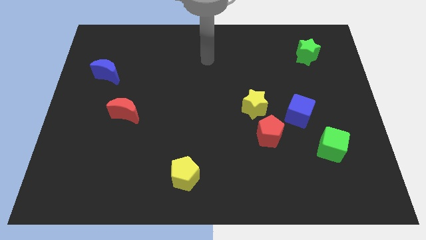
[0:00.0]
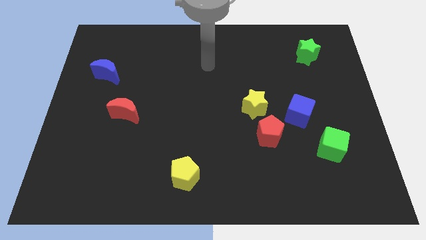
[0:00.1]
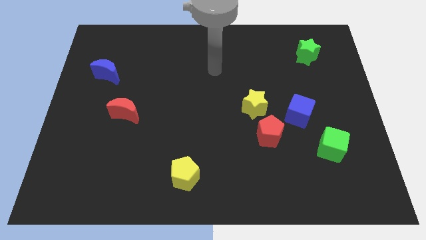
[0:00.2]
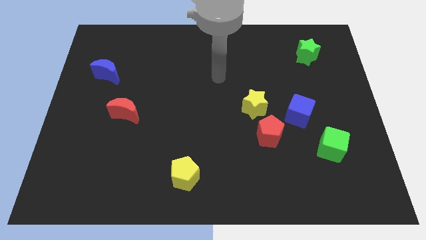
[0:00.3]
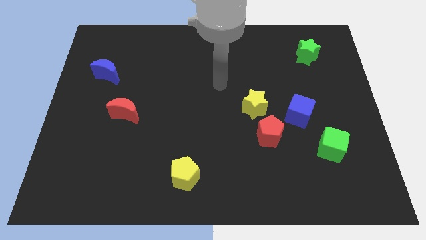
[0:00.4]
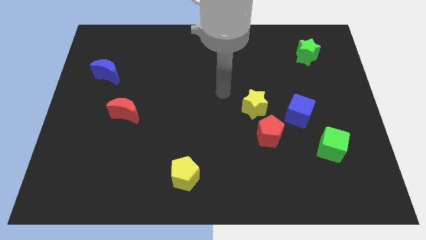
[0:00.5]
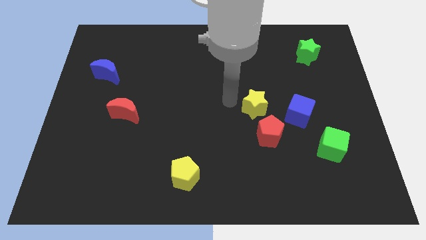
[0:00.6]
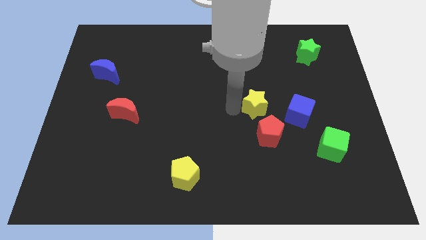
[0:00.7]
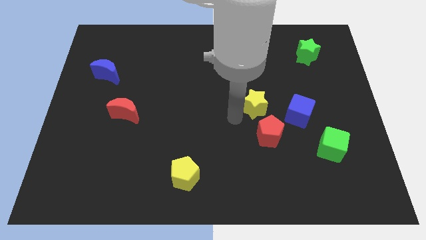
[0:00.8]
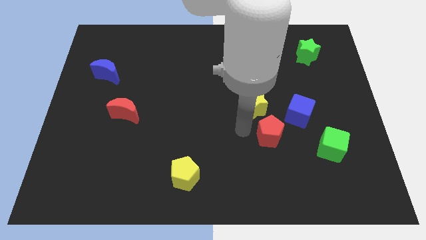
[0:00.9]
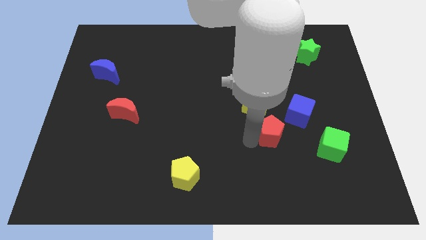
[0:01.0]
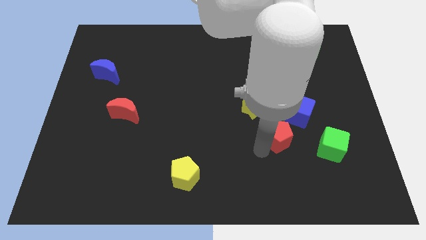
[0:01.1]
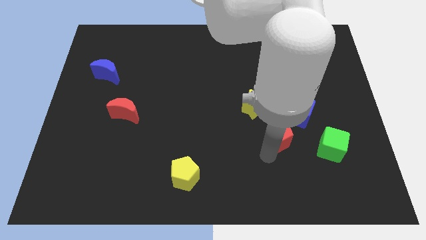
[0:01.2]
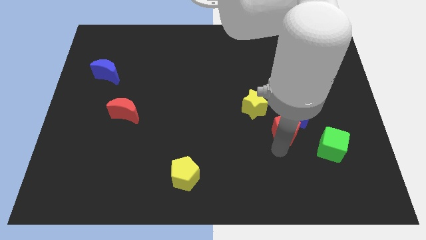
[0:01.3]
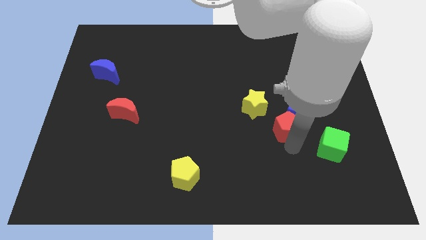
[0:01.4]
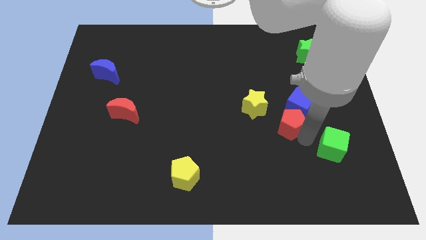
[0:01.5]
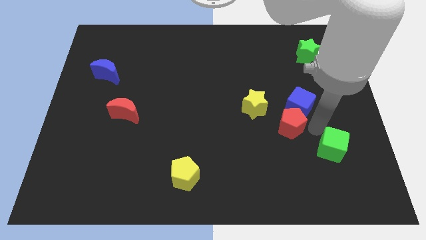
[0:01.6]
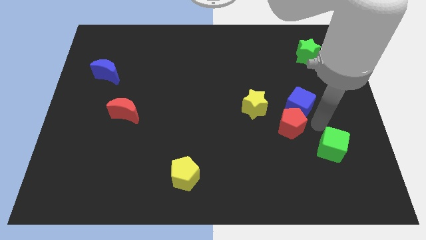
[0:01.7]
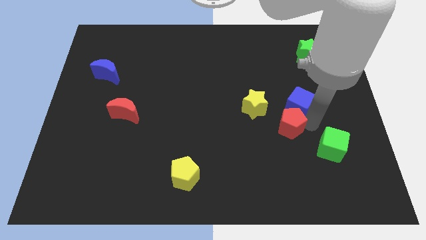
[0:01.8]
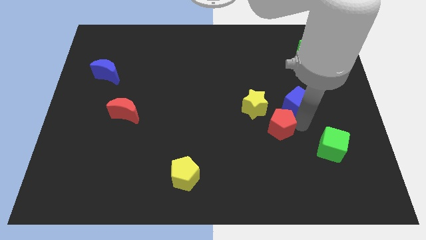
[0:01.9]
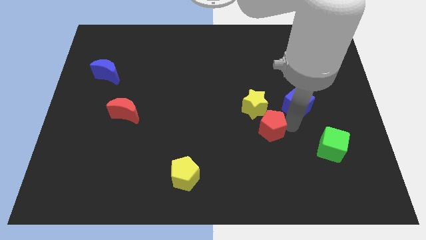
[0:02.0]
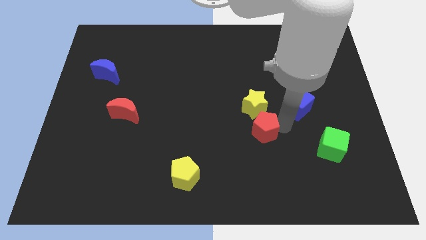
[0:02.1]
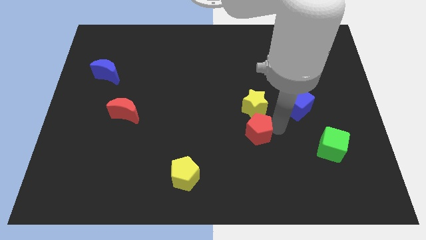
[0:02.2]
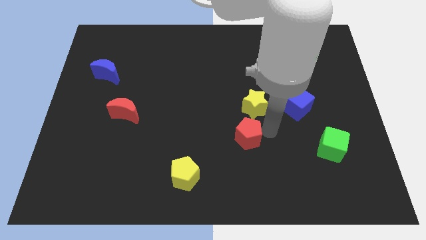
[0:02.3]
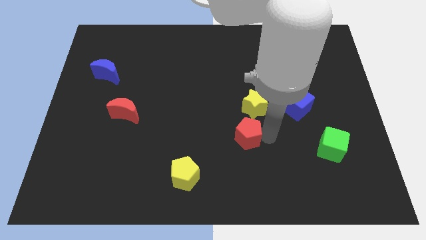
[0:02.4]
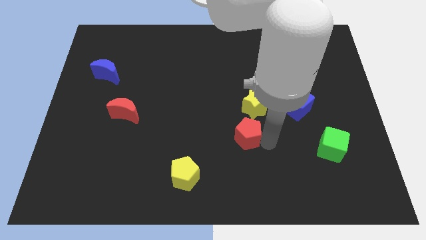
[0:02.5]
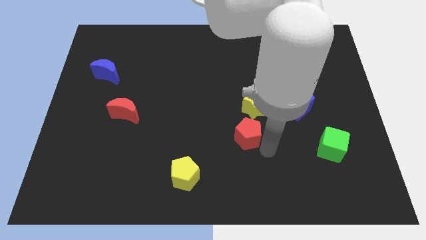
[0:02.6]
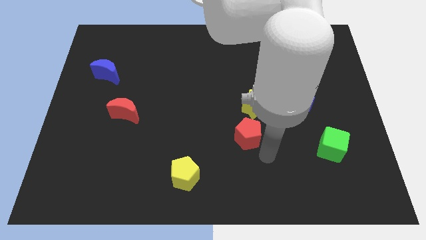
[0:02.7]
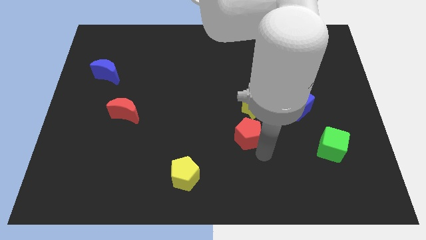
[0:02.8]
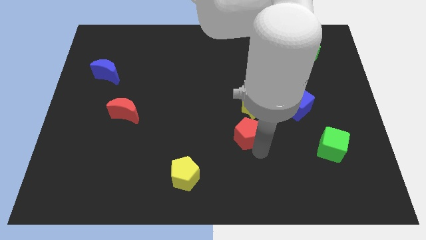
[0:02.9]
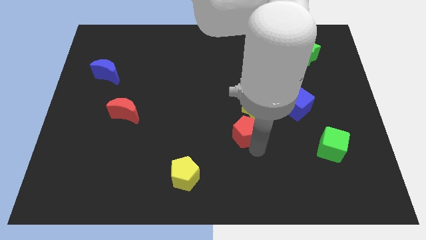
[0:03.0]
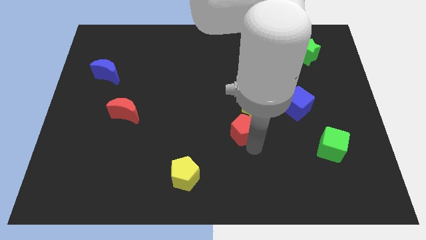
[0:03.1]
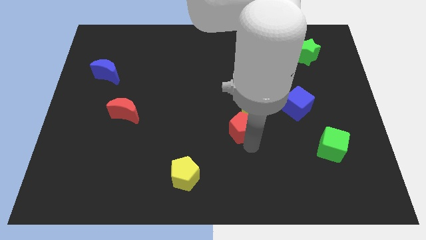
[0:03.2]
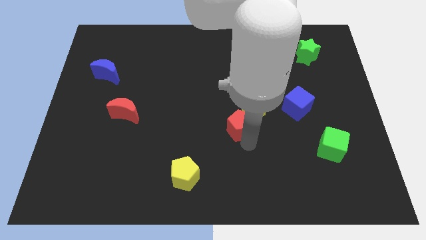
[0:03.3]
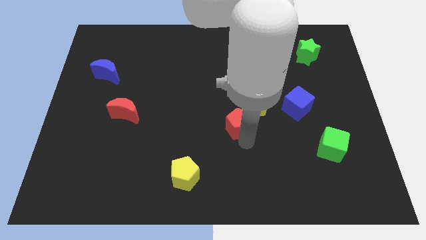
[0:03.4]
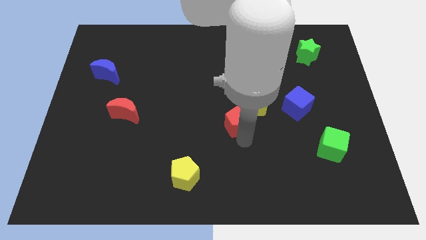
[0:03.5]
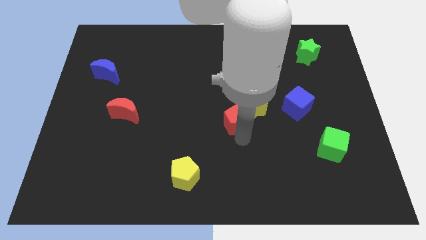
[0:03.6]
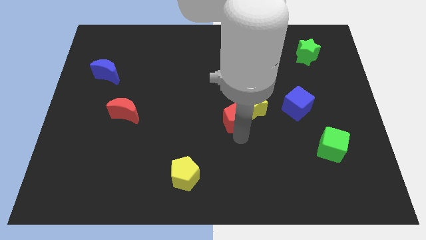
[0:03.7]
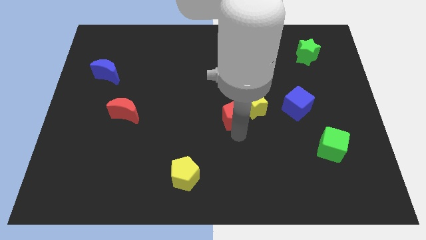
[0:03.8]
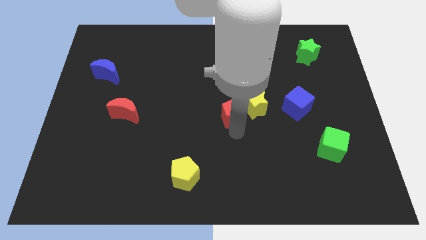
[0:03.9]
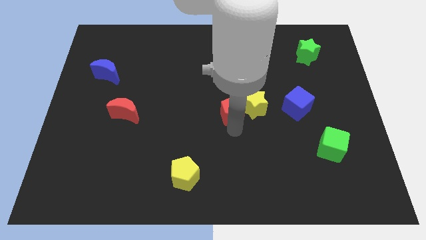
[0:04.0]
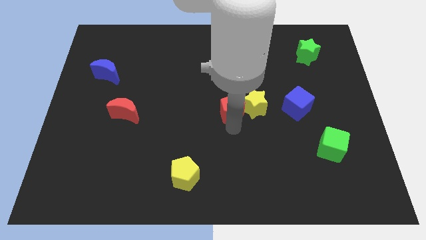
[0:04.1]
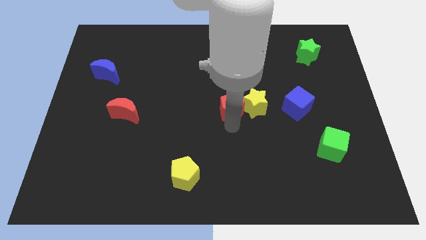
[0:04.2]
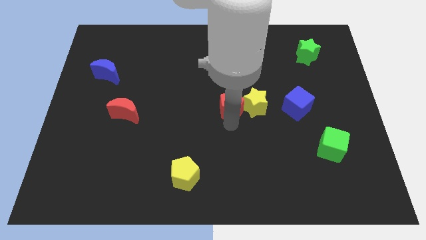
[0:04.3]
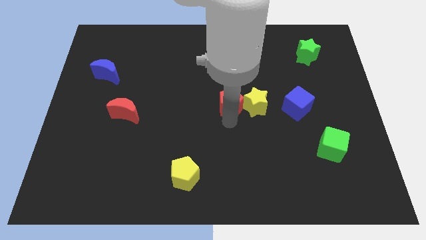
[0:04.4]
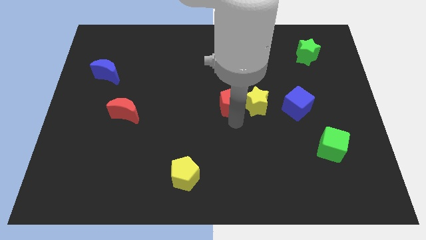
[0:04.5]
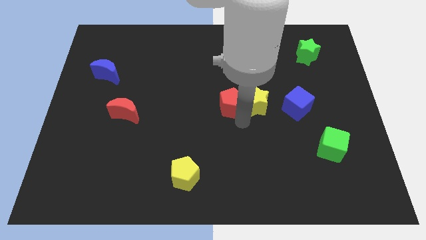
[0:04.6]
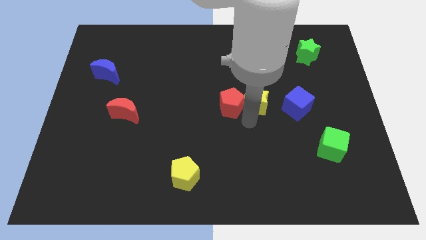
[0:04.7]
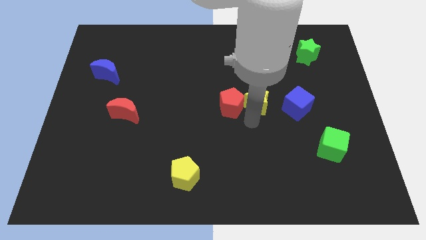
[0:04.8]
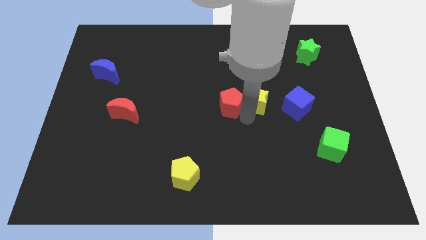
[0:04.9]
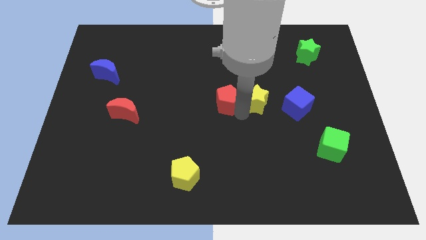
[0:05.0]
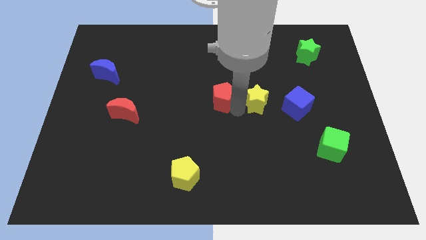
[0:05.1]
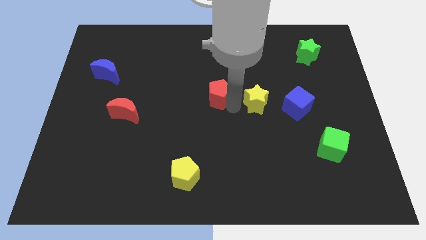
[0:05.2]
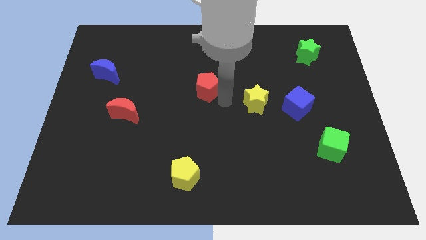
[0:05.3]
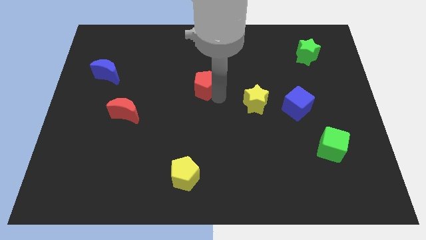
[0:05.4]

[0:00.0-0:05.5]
push the red pentagon diagonally upwards and left

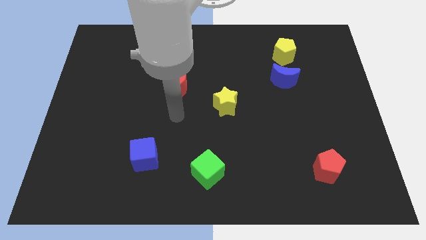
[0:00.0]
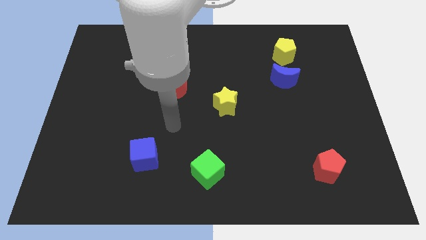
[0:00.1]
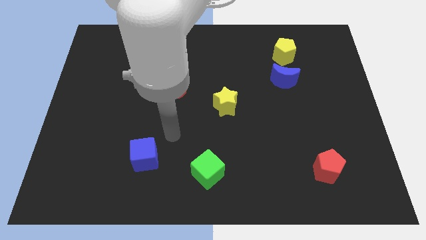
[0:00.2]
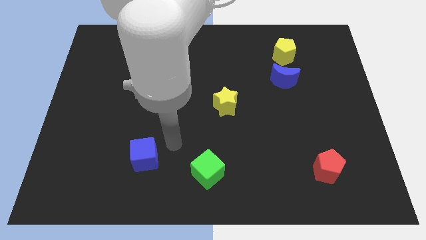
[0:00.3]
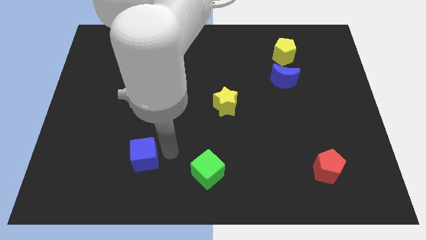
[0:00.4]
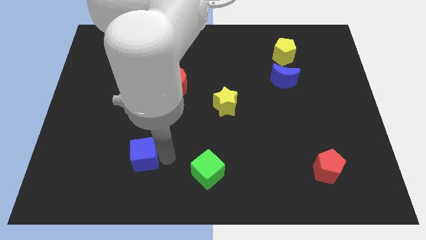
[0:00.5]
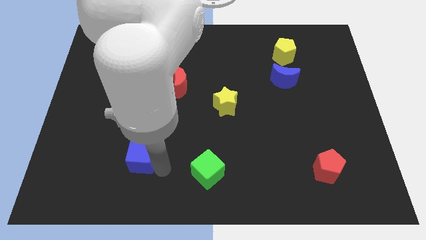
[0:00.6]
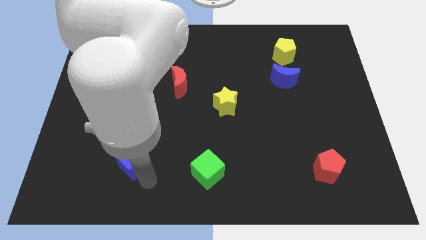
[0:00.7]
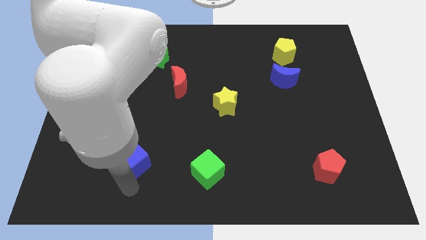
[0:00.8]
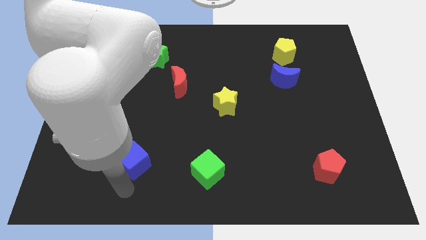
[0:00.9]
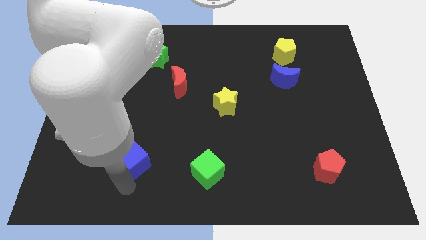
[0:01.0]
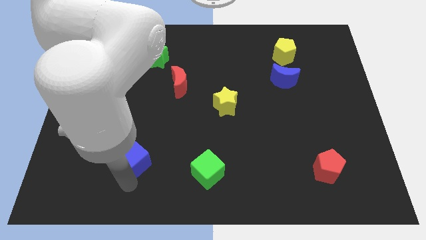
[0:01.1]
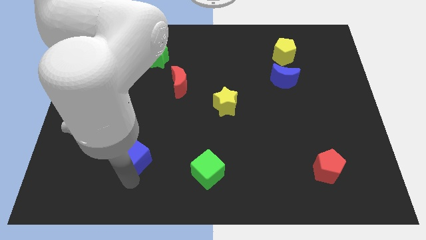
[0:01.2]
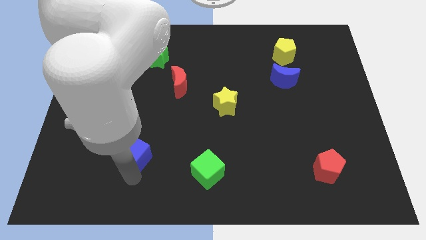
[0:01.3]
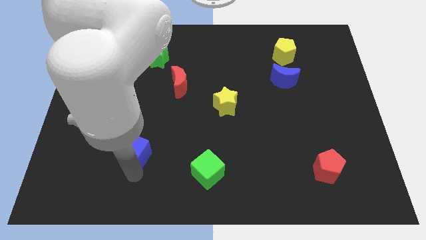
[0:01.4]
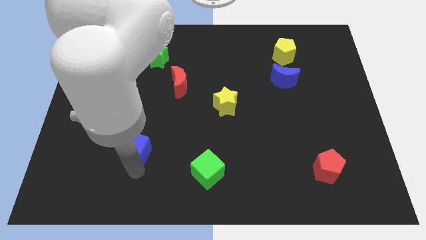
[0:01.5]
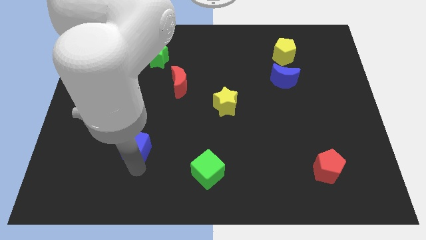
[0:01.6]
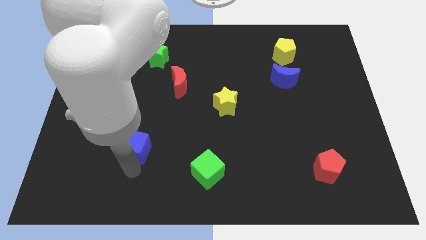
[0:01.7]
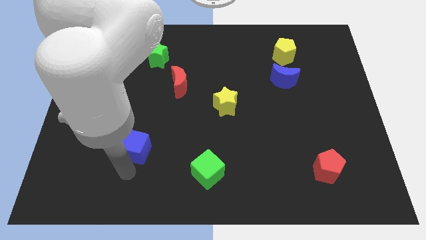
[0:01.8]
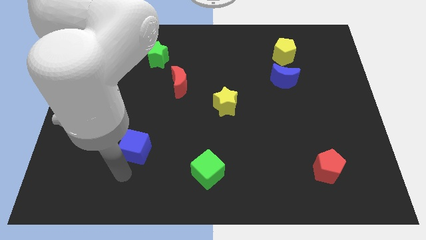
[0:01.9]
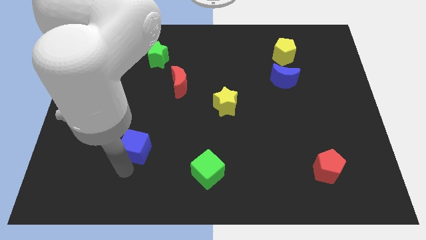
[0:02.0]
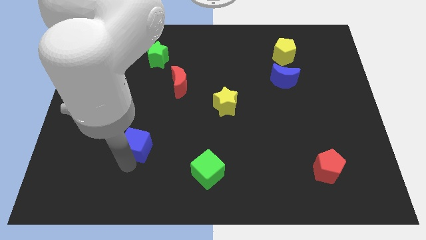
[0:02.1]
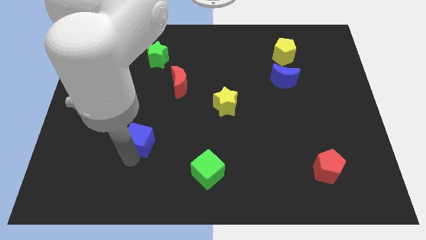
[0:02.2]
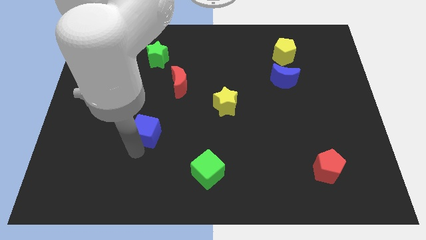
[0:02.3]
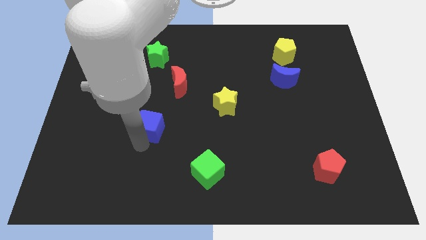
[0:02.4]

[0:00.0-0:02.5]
slide the blue cube upwards somewhat
